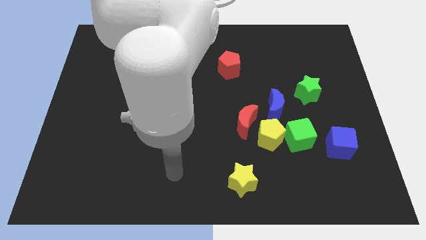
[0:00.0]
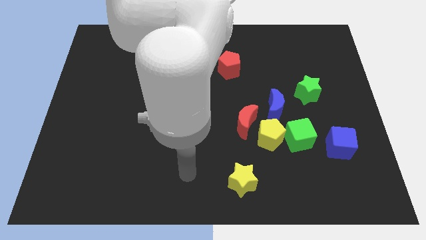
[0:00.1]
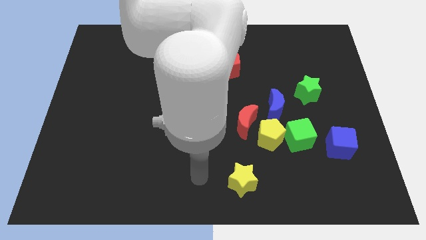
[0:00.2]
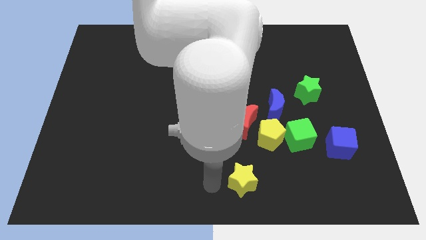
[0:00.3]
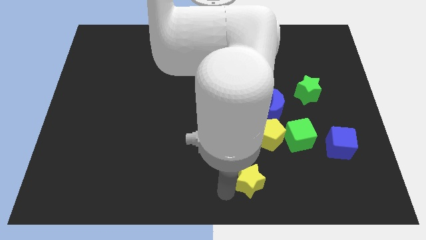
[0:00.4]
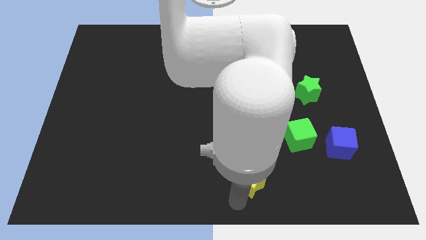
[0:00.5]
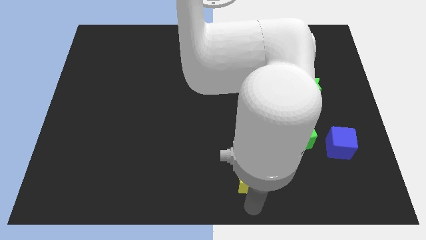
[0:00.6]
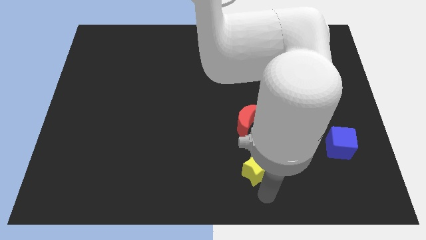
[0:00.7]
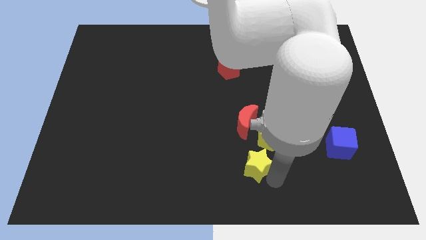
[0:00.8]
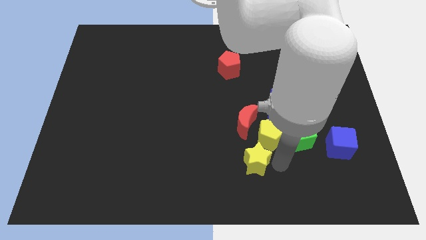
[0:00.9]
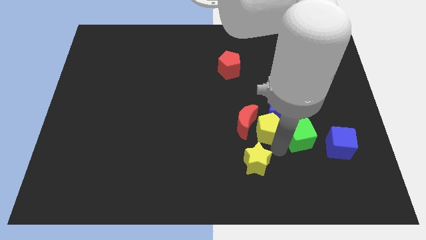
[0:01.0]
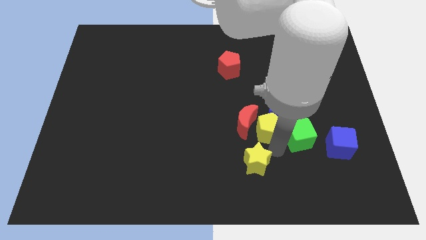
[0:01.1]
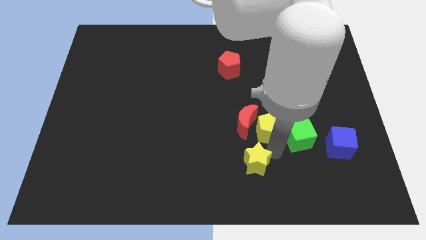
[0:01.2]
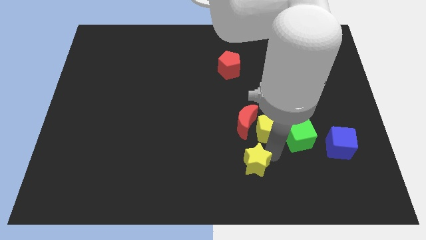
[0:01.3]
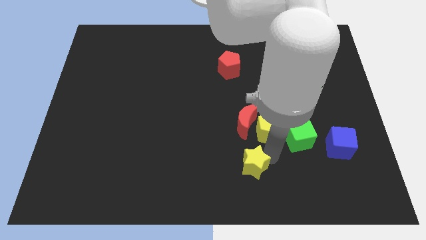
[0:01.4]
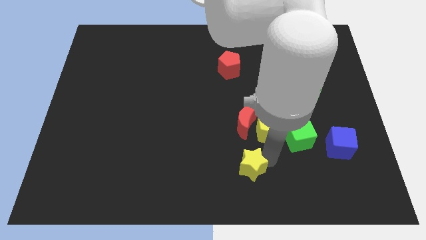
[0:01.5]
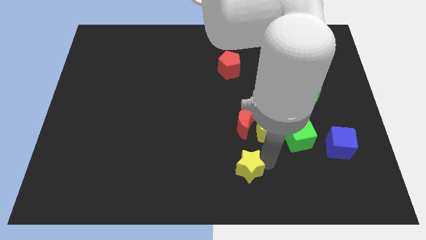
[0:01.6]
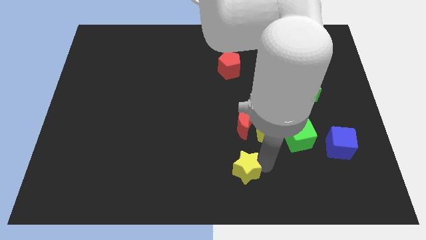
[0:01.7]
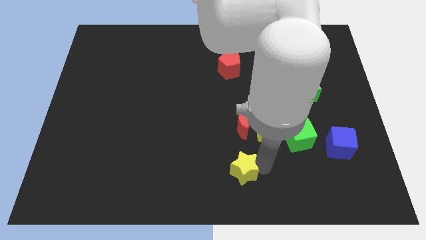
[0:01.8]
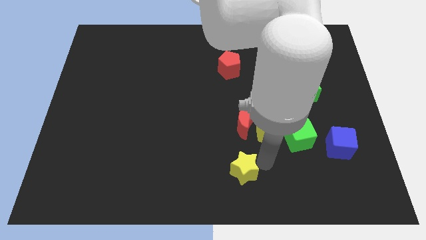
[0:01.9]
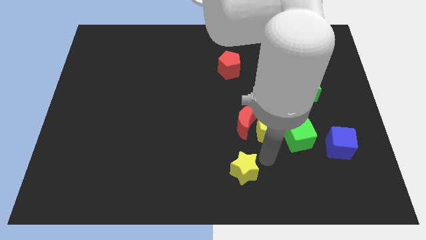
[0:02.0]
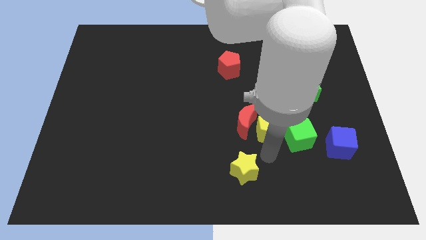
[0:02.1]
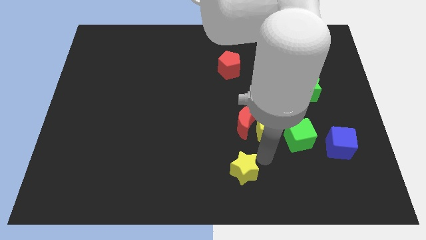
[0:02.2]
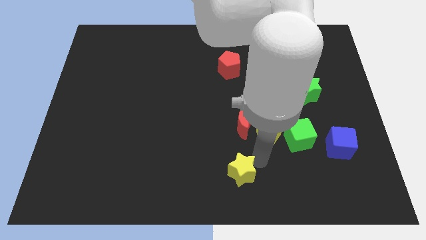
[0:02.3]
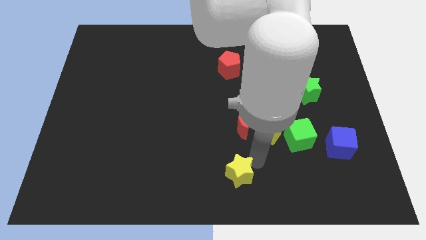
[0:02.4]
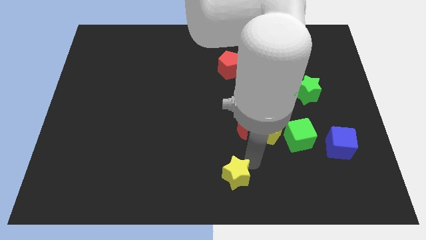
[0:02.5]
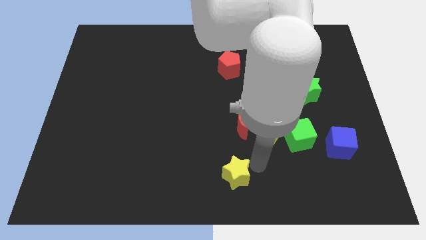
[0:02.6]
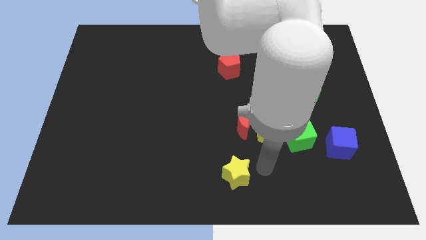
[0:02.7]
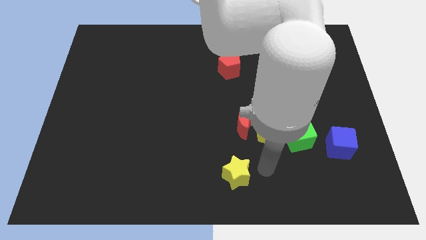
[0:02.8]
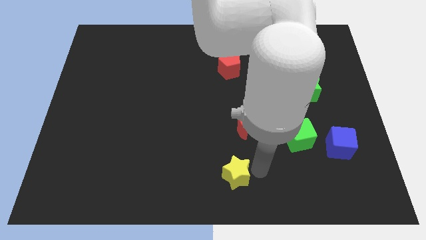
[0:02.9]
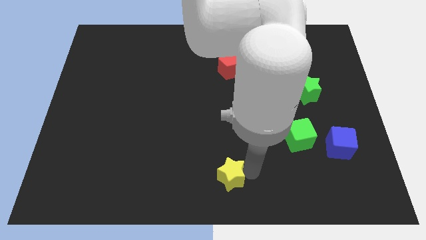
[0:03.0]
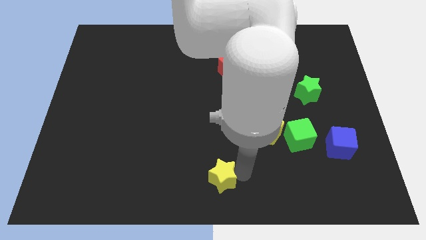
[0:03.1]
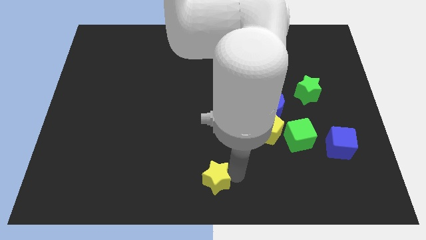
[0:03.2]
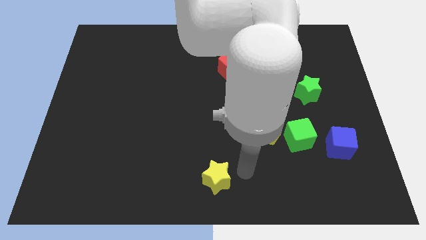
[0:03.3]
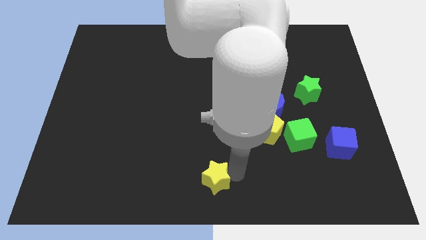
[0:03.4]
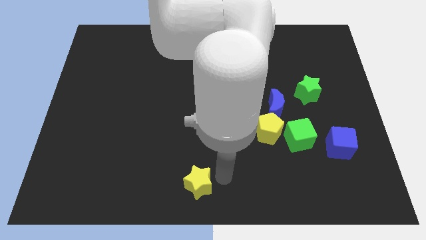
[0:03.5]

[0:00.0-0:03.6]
move the yellow star a bit left

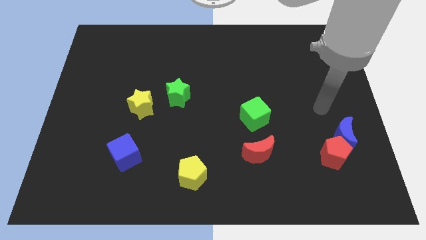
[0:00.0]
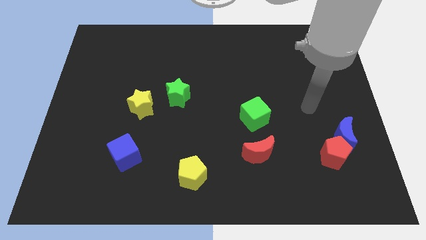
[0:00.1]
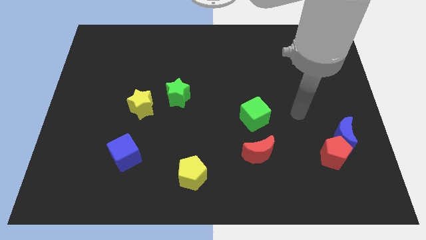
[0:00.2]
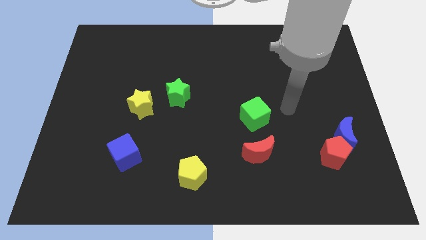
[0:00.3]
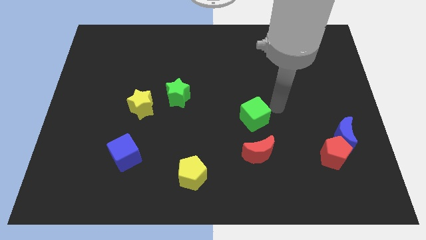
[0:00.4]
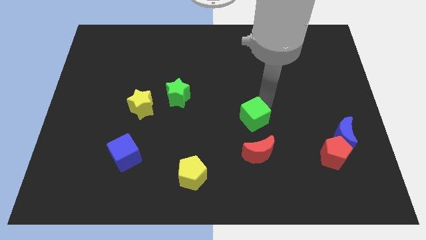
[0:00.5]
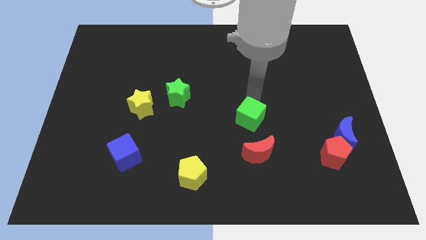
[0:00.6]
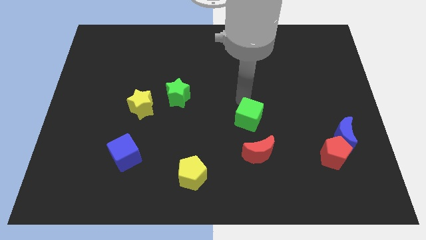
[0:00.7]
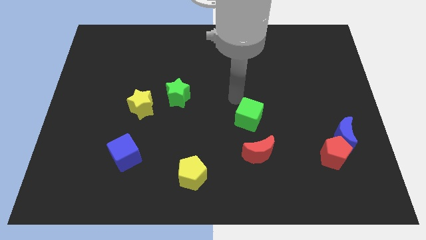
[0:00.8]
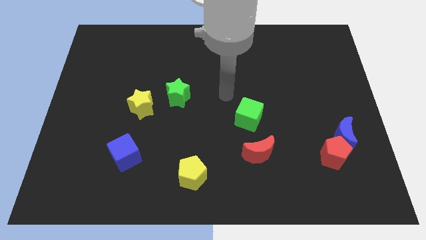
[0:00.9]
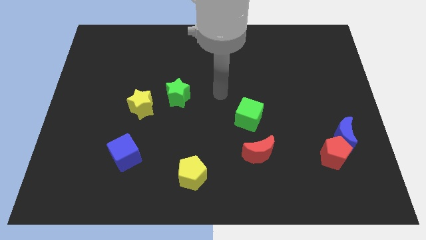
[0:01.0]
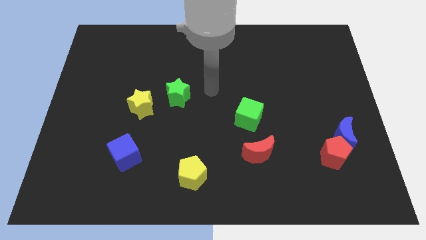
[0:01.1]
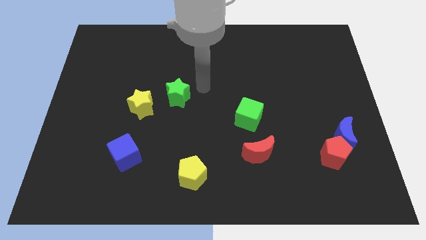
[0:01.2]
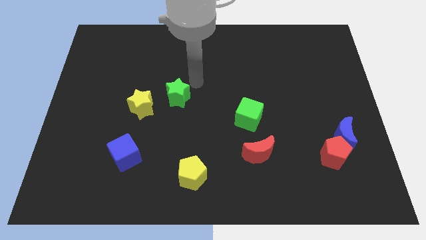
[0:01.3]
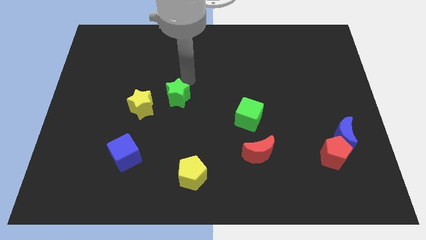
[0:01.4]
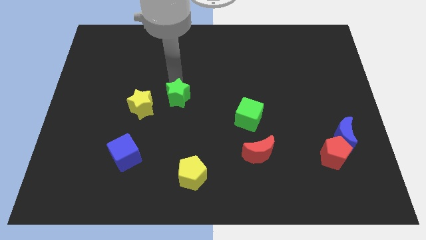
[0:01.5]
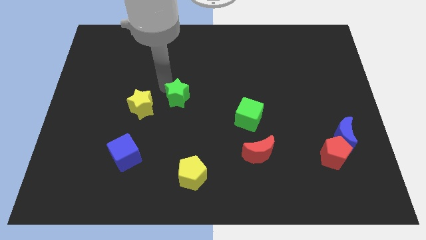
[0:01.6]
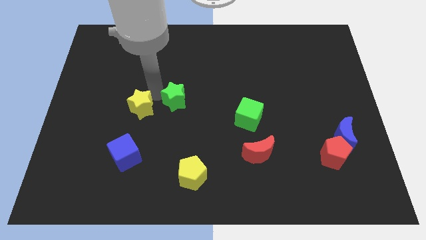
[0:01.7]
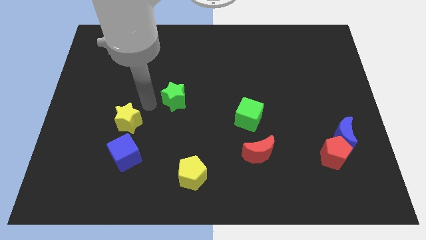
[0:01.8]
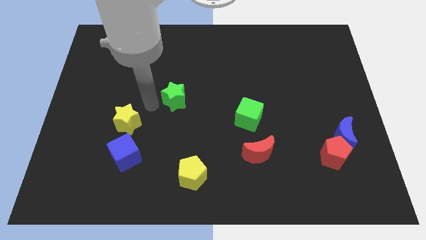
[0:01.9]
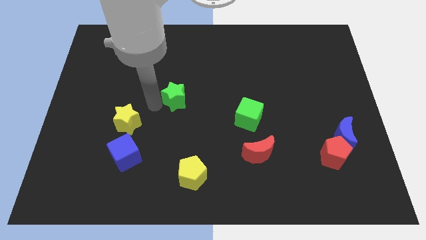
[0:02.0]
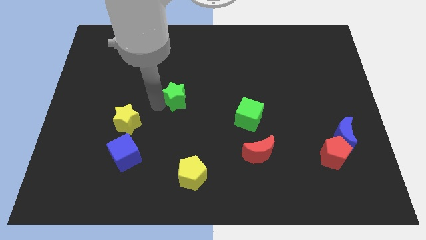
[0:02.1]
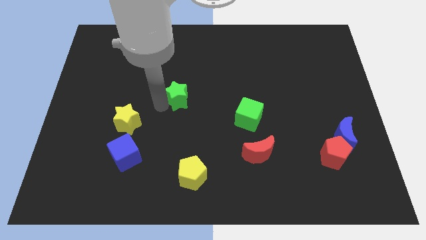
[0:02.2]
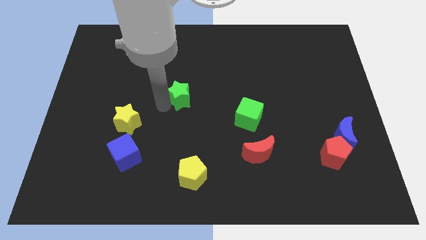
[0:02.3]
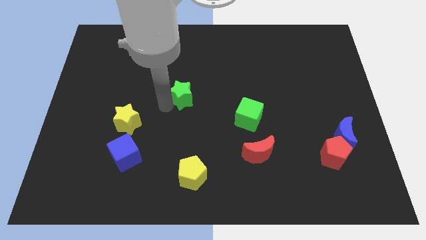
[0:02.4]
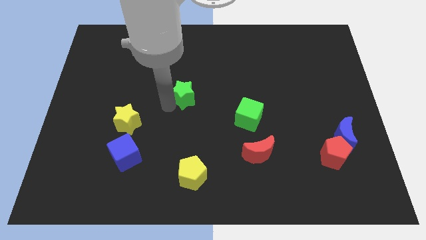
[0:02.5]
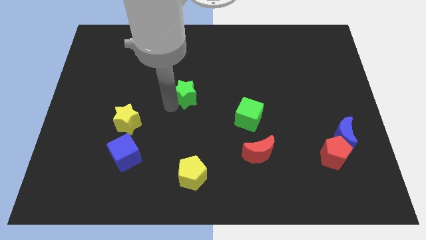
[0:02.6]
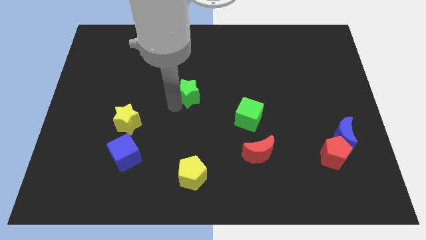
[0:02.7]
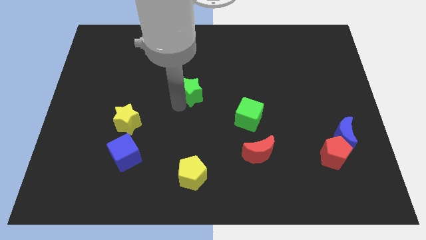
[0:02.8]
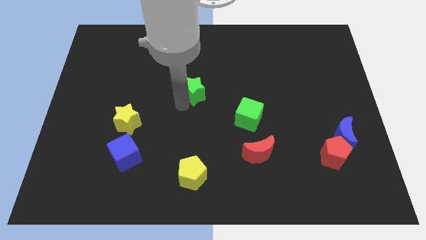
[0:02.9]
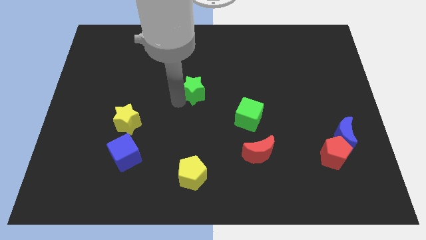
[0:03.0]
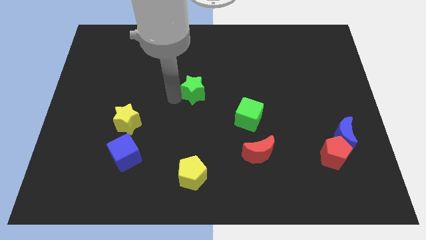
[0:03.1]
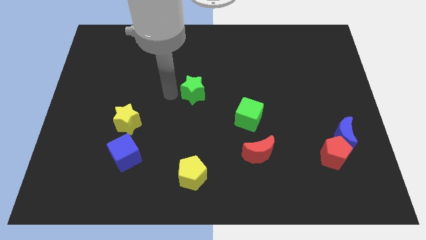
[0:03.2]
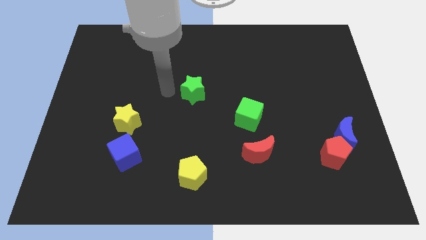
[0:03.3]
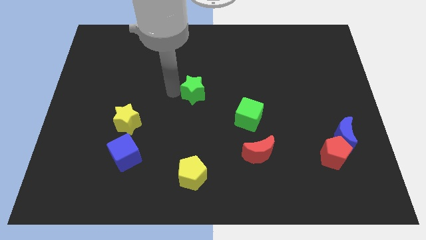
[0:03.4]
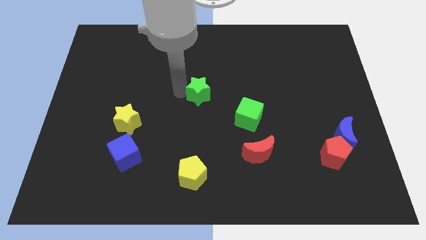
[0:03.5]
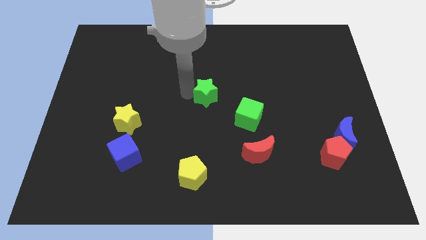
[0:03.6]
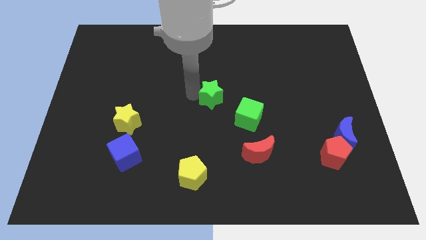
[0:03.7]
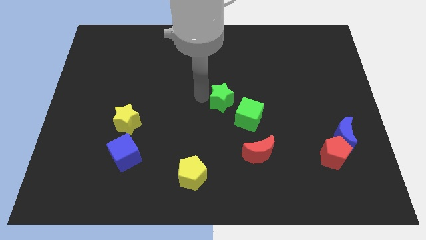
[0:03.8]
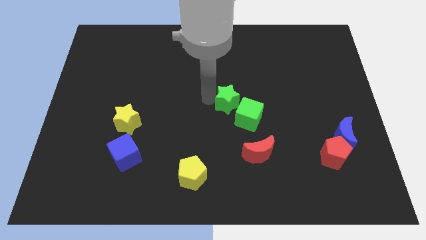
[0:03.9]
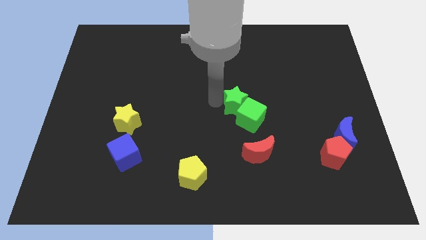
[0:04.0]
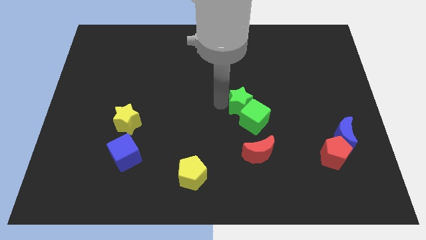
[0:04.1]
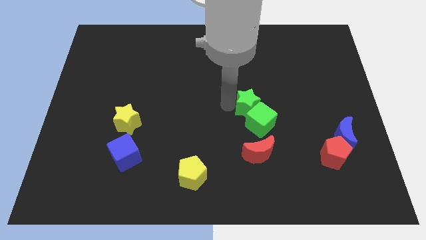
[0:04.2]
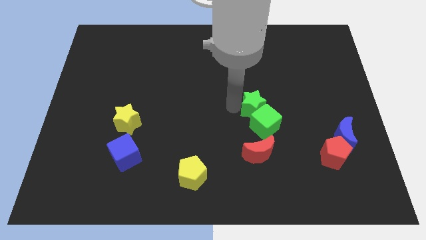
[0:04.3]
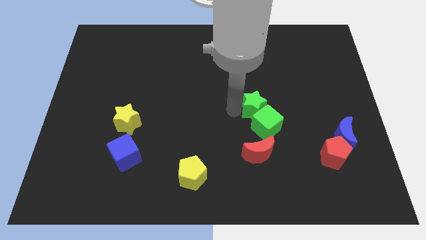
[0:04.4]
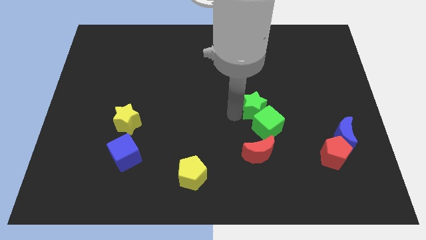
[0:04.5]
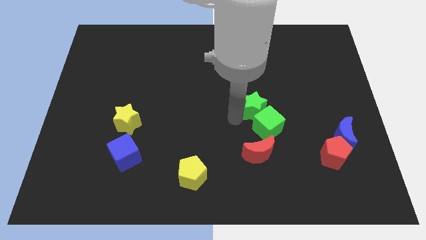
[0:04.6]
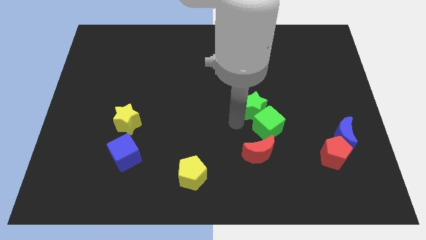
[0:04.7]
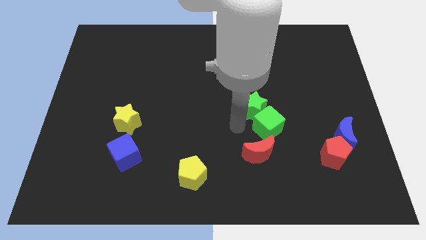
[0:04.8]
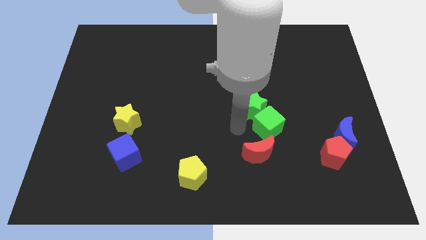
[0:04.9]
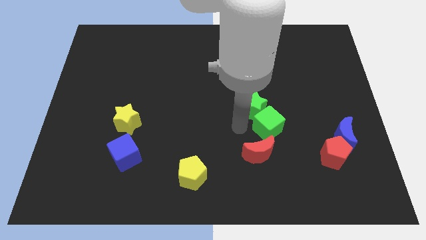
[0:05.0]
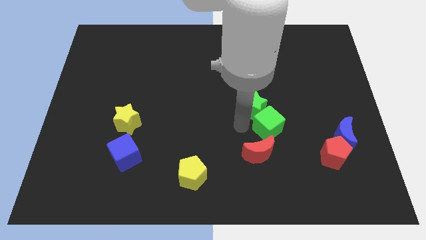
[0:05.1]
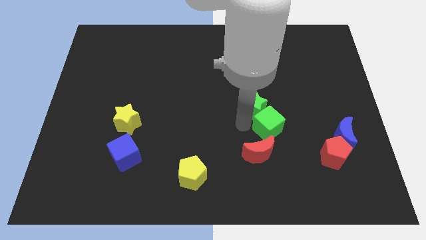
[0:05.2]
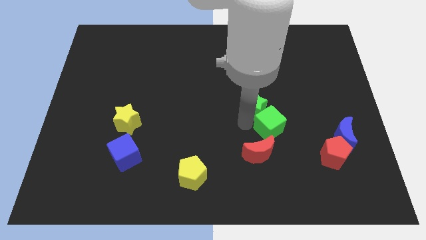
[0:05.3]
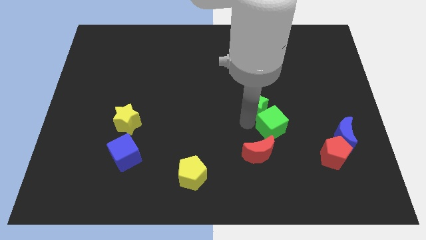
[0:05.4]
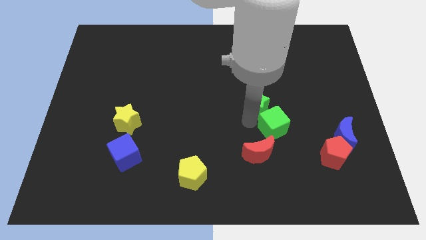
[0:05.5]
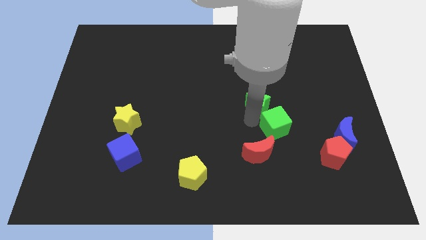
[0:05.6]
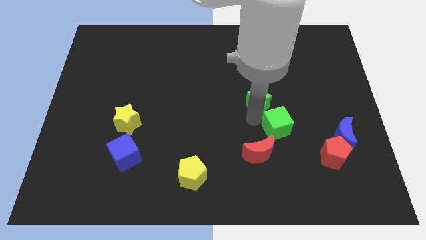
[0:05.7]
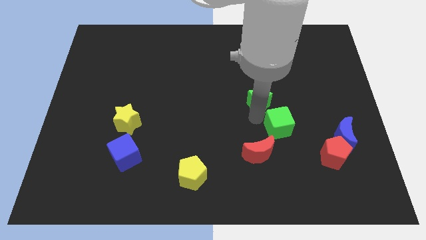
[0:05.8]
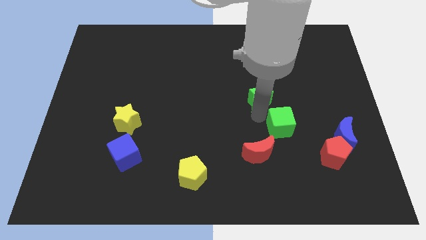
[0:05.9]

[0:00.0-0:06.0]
push the green star right
